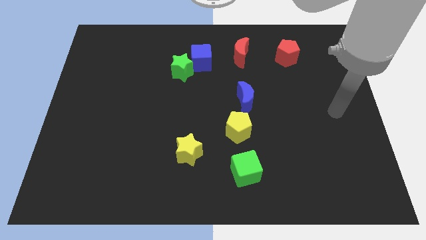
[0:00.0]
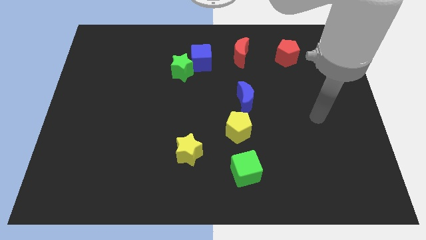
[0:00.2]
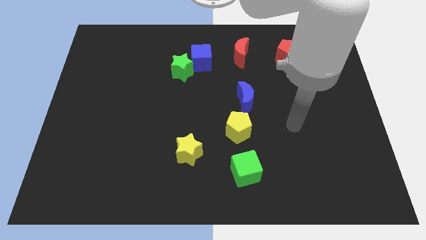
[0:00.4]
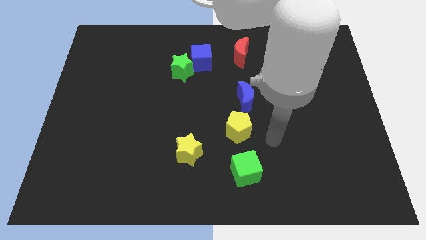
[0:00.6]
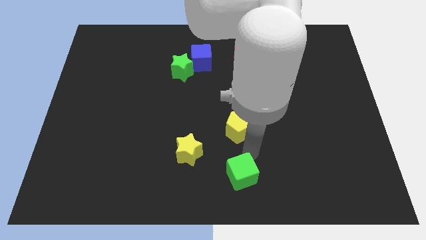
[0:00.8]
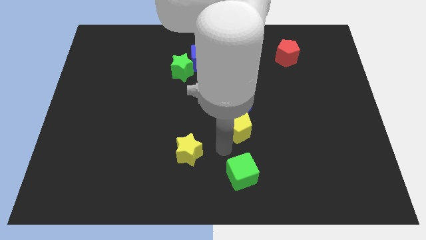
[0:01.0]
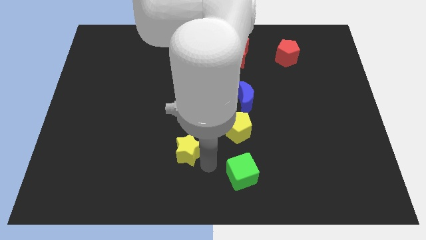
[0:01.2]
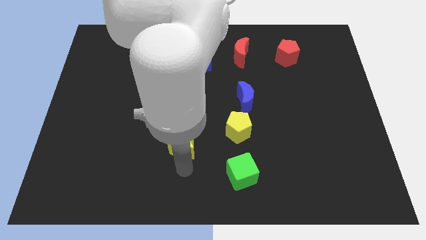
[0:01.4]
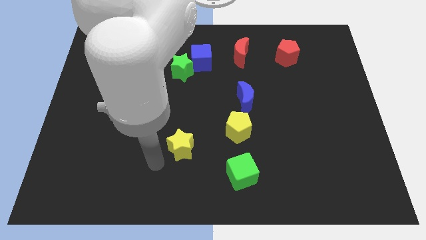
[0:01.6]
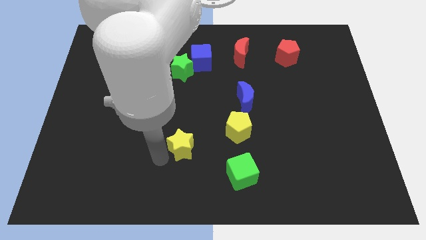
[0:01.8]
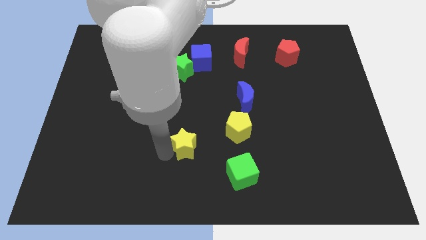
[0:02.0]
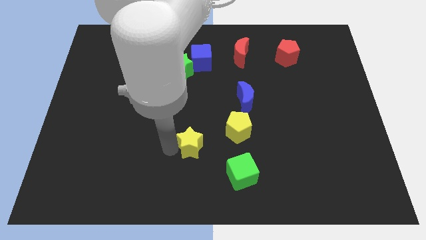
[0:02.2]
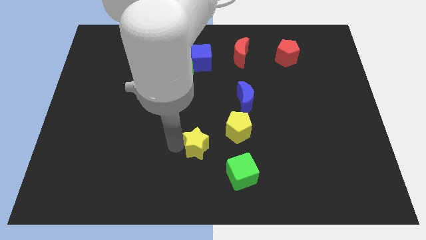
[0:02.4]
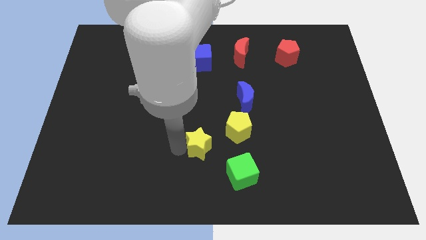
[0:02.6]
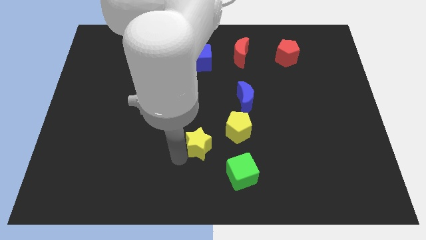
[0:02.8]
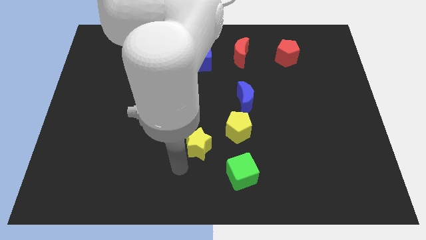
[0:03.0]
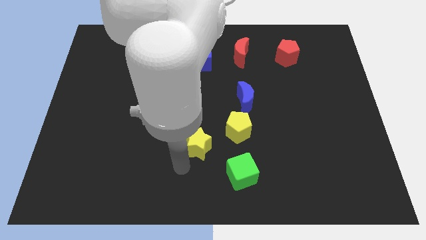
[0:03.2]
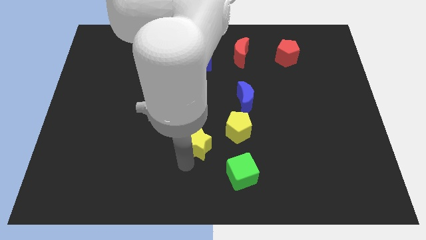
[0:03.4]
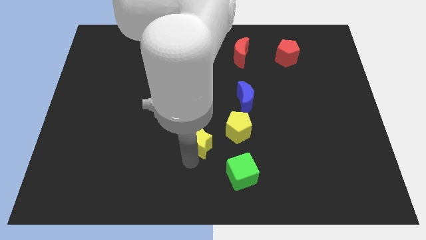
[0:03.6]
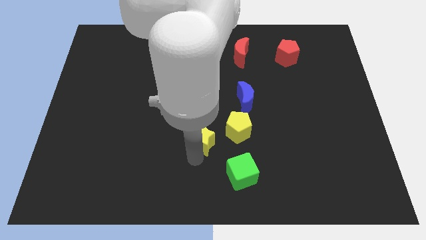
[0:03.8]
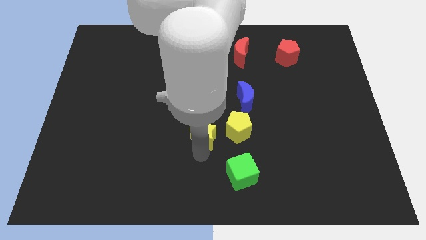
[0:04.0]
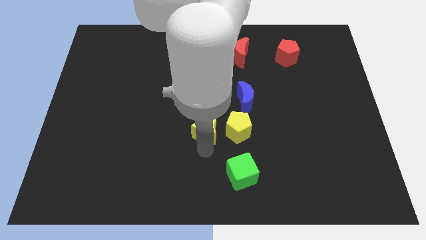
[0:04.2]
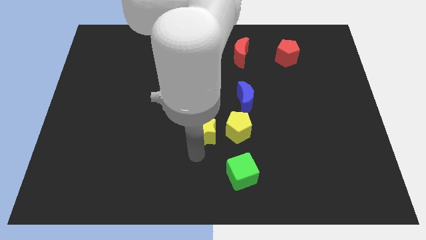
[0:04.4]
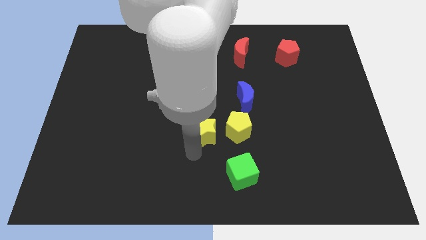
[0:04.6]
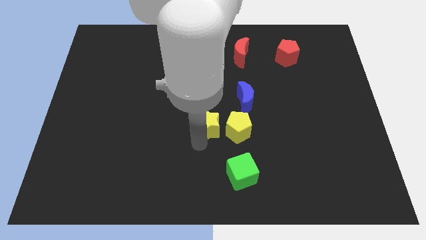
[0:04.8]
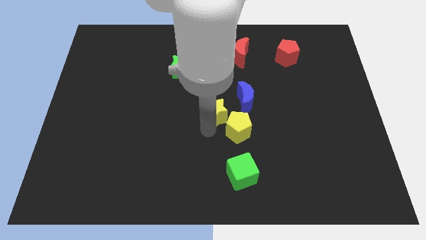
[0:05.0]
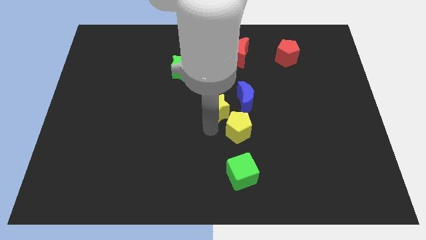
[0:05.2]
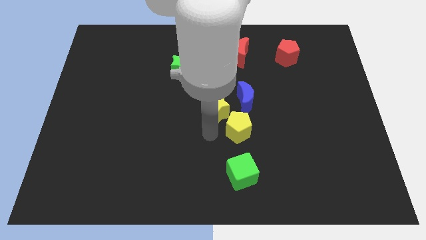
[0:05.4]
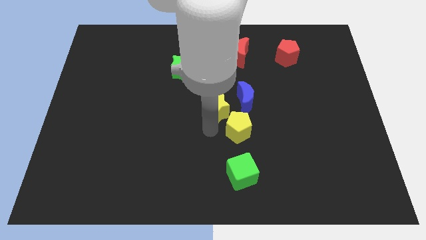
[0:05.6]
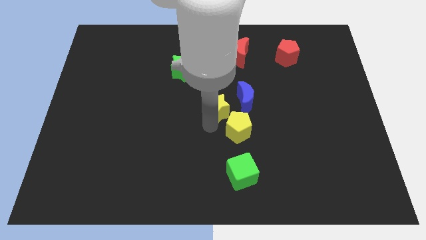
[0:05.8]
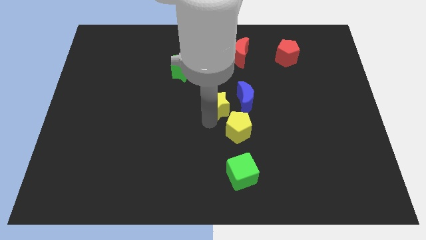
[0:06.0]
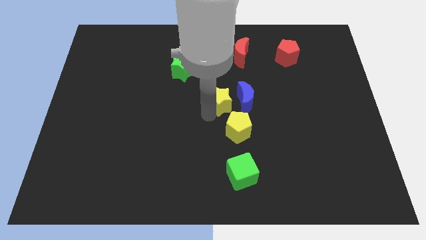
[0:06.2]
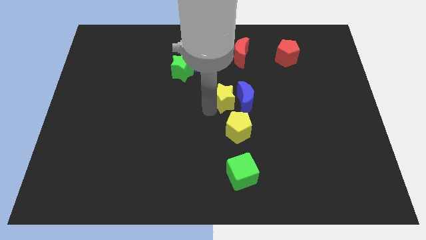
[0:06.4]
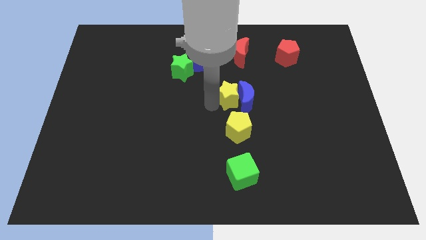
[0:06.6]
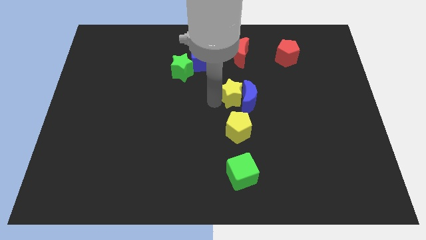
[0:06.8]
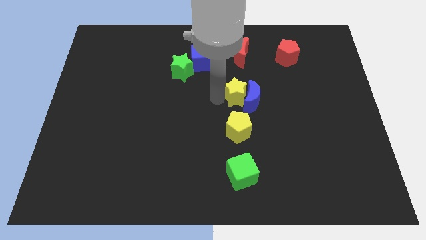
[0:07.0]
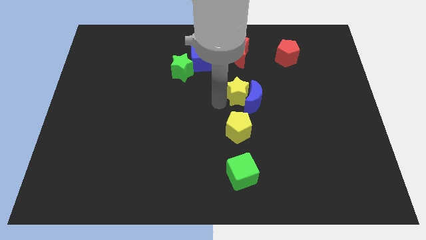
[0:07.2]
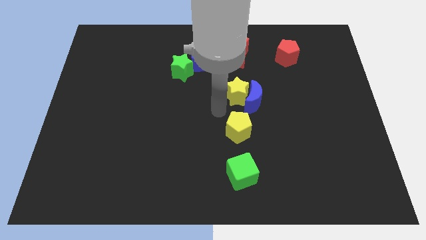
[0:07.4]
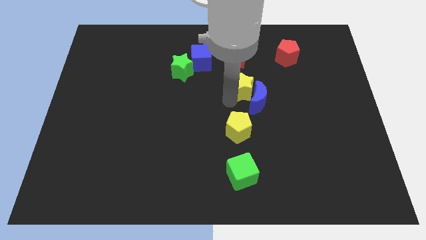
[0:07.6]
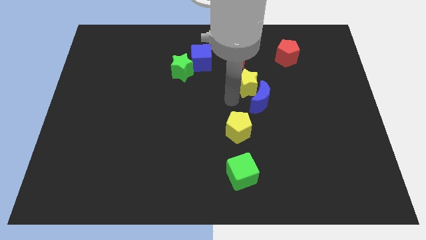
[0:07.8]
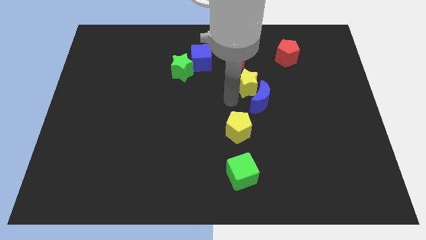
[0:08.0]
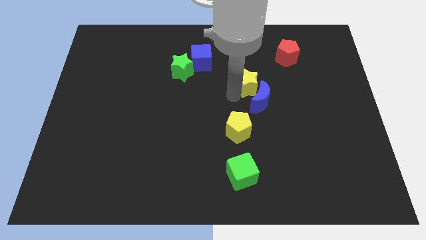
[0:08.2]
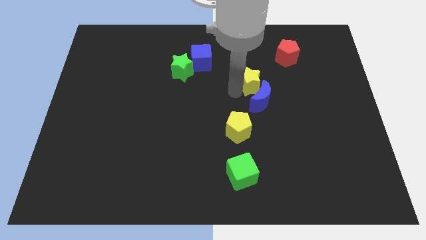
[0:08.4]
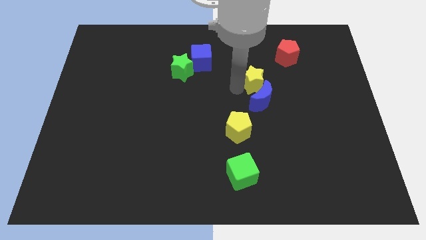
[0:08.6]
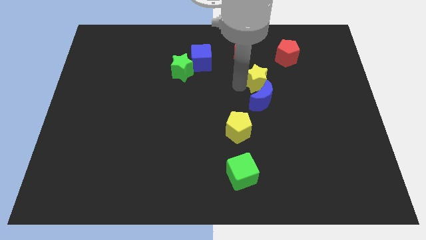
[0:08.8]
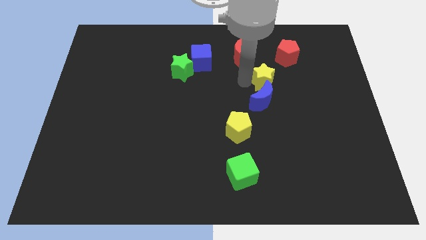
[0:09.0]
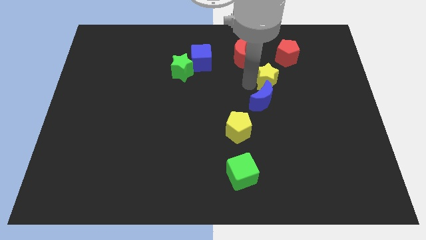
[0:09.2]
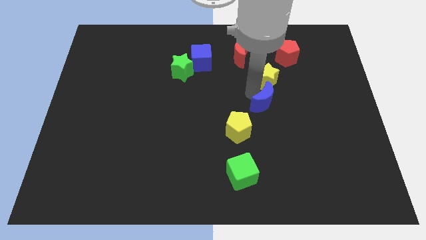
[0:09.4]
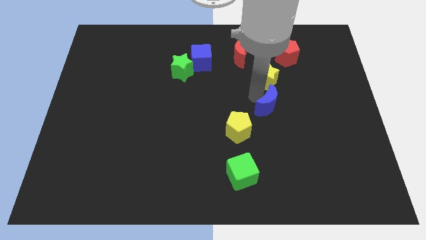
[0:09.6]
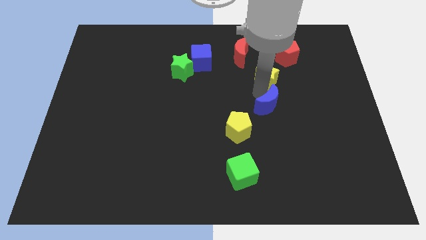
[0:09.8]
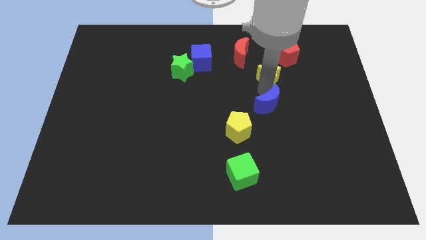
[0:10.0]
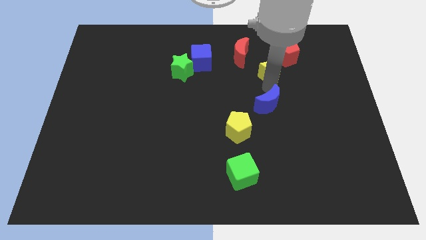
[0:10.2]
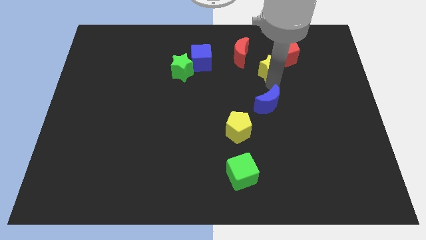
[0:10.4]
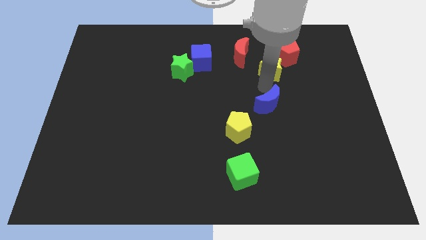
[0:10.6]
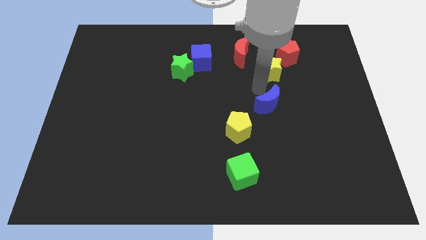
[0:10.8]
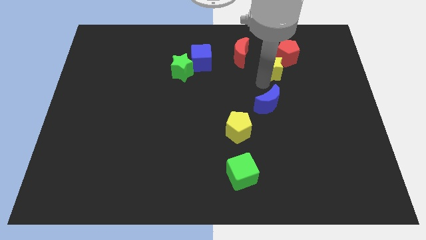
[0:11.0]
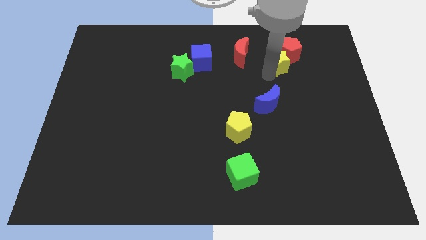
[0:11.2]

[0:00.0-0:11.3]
put the yellow star next to the red pentagon

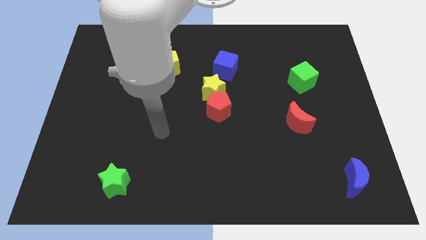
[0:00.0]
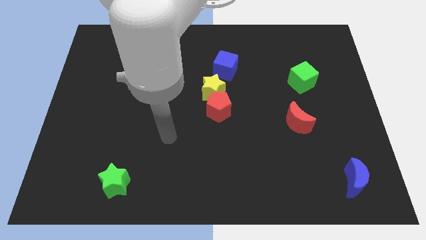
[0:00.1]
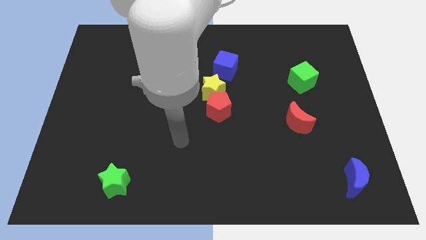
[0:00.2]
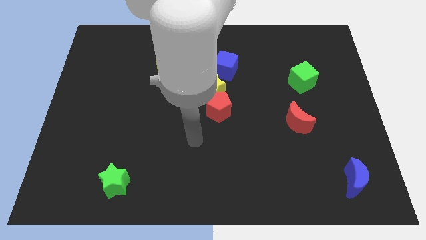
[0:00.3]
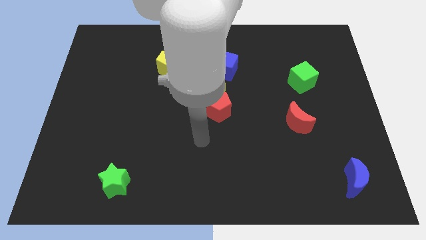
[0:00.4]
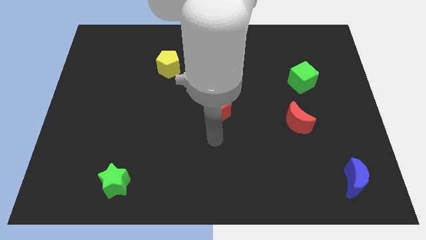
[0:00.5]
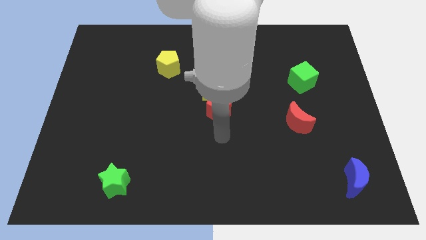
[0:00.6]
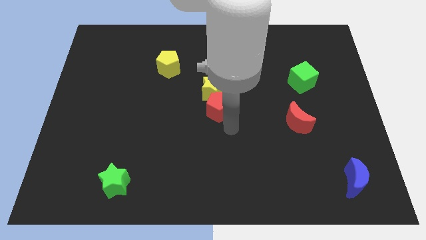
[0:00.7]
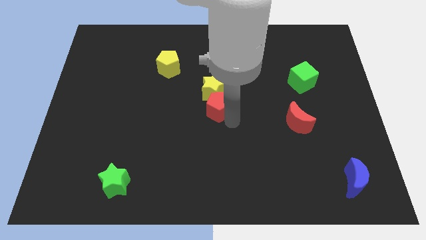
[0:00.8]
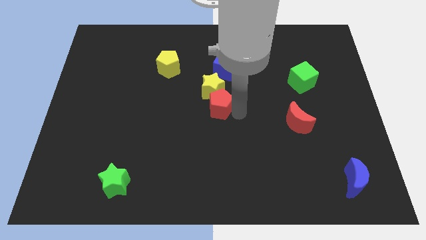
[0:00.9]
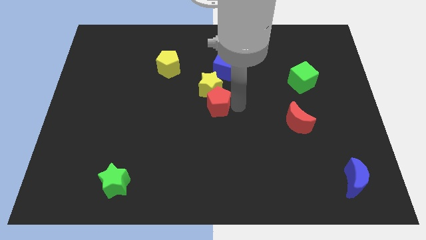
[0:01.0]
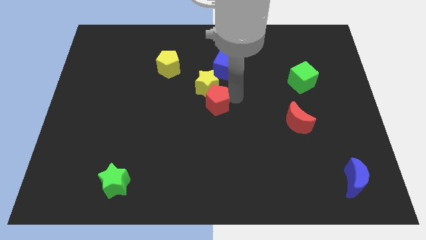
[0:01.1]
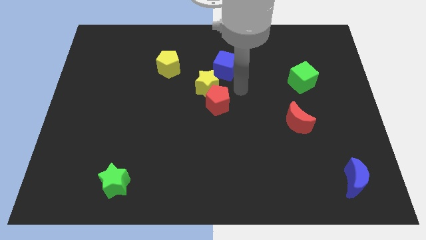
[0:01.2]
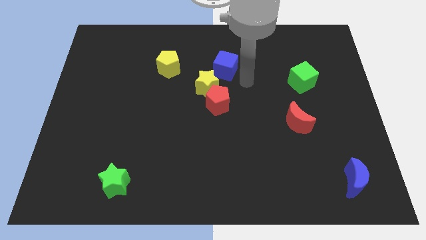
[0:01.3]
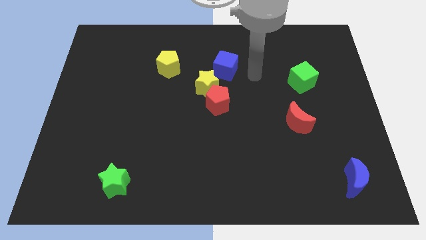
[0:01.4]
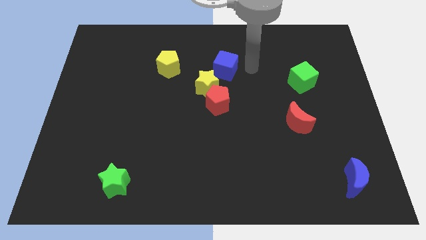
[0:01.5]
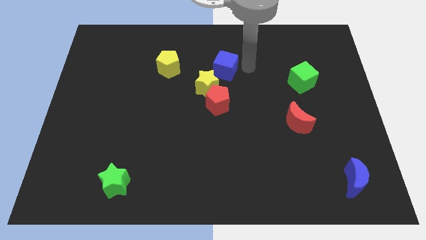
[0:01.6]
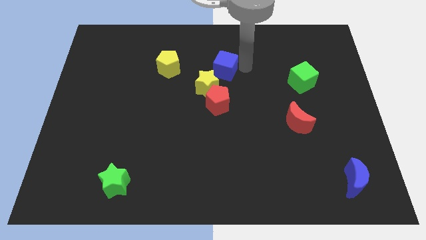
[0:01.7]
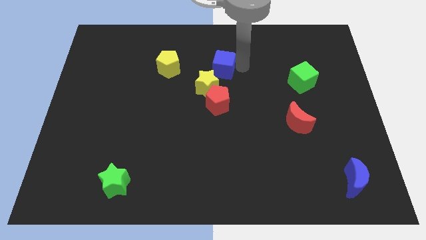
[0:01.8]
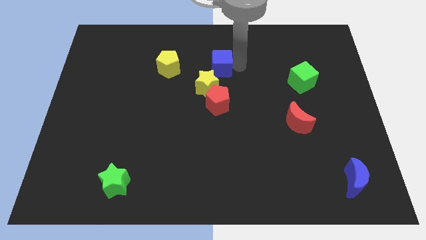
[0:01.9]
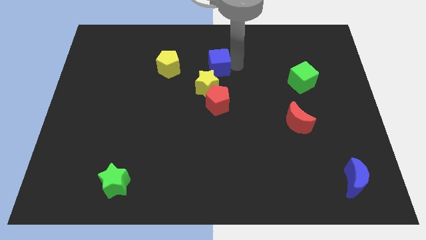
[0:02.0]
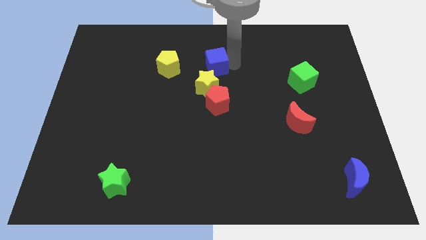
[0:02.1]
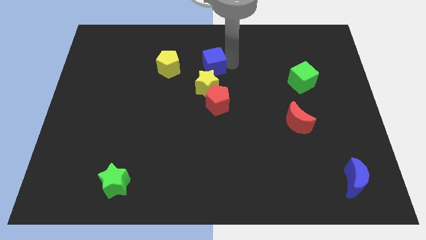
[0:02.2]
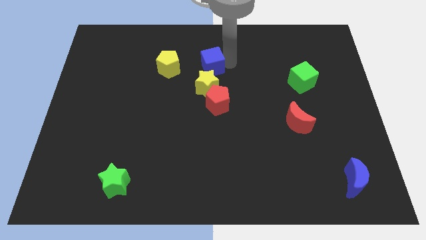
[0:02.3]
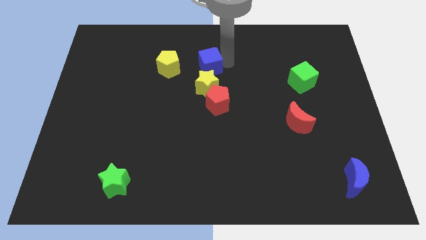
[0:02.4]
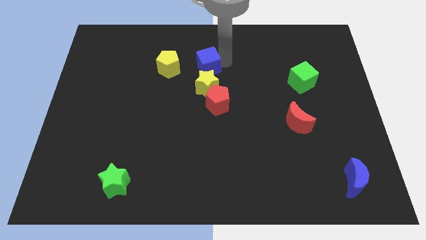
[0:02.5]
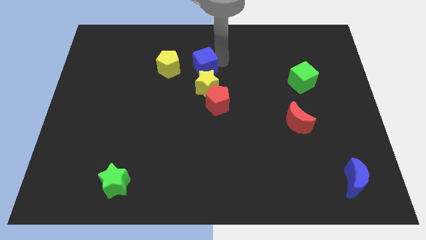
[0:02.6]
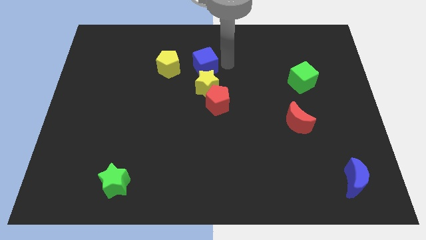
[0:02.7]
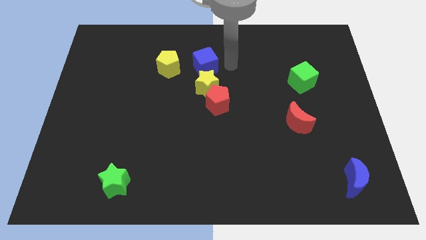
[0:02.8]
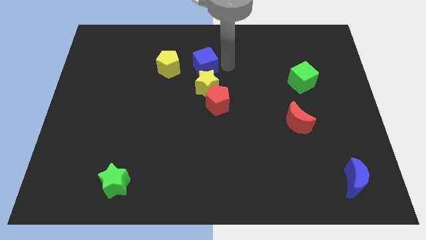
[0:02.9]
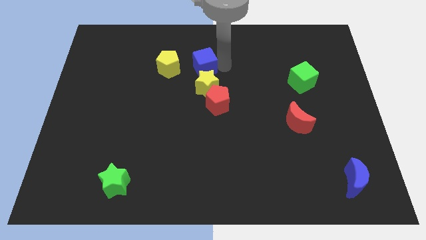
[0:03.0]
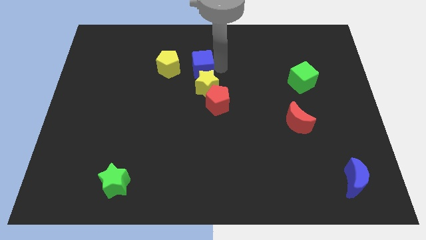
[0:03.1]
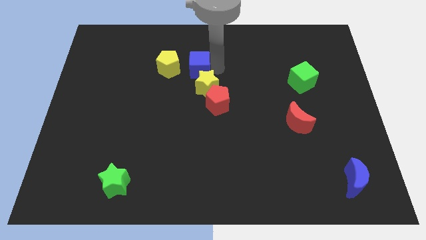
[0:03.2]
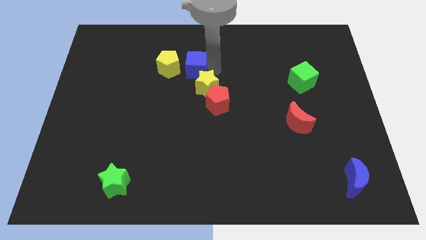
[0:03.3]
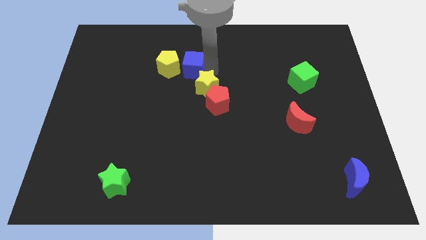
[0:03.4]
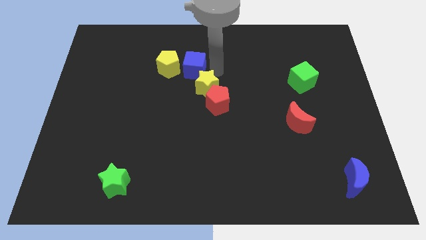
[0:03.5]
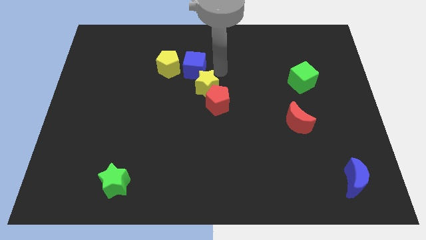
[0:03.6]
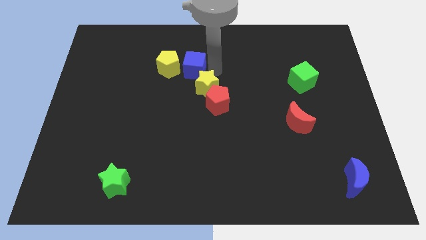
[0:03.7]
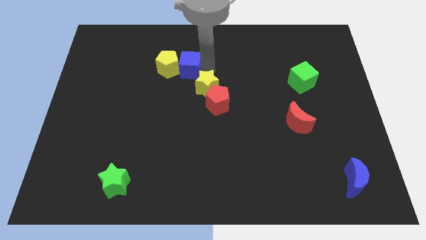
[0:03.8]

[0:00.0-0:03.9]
move the blue cube towards the yellow pentagon
